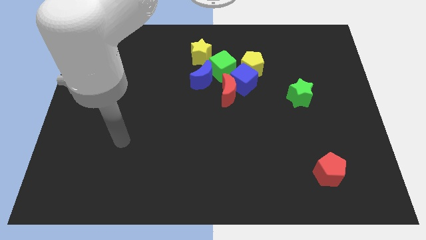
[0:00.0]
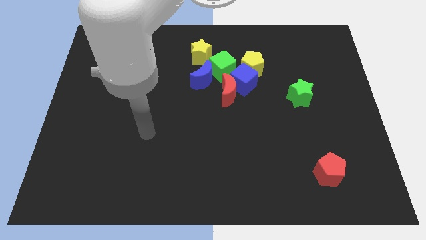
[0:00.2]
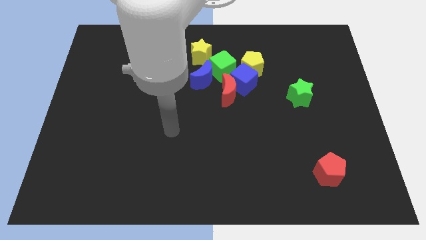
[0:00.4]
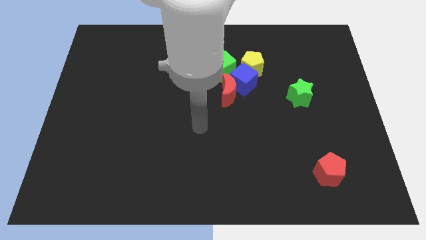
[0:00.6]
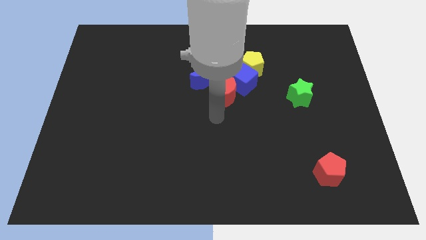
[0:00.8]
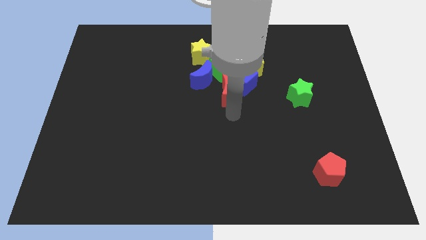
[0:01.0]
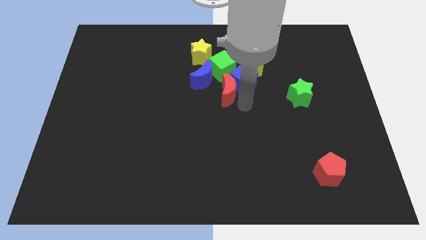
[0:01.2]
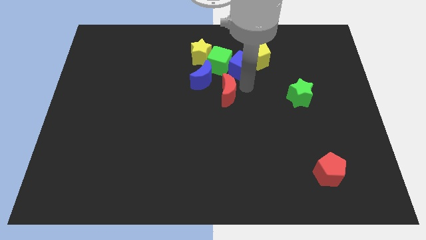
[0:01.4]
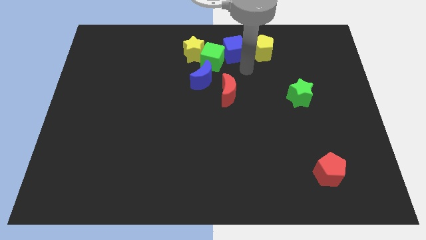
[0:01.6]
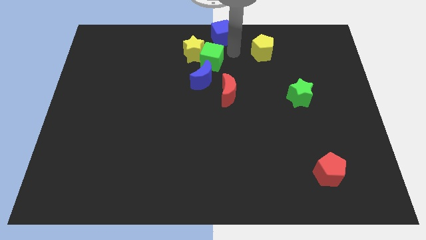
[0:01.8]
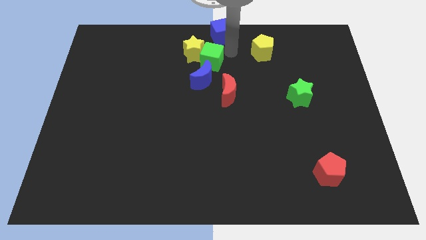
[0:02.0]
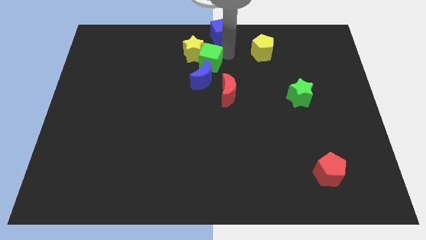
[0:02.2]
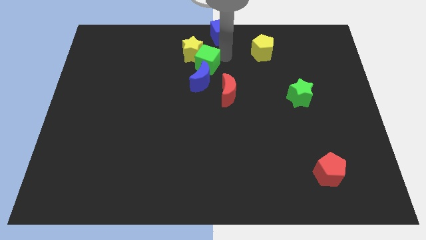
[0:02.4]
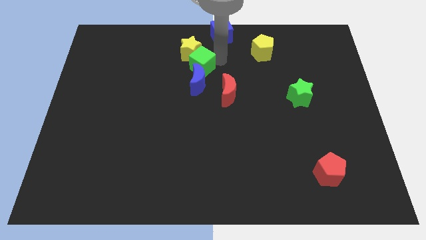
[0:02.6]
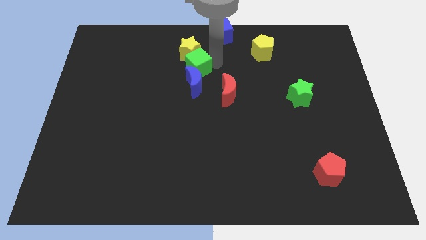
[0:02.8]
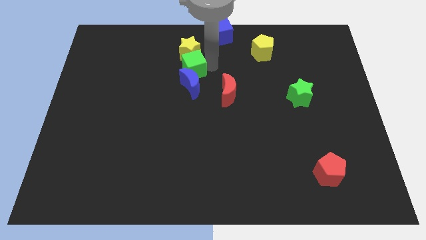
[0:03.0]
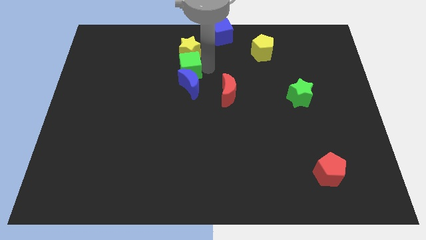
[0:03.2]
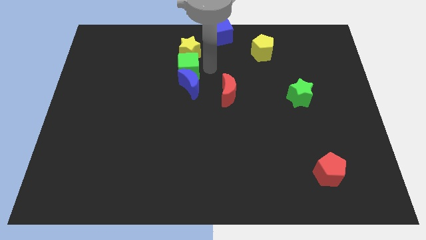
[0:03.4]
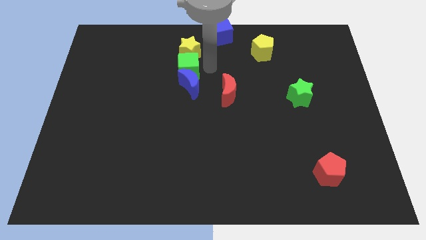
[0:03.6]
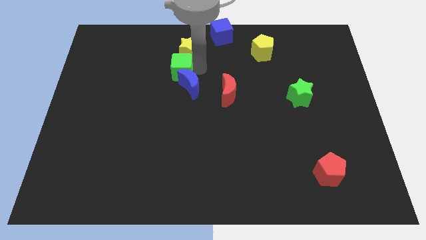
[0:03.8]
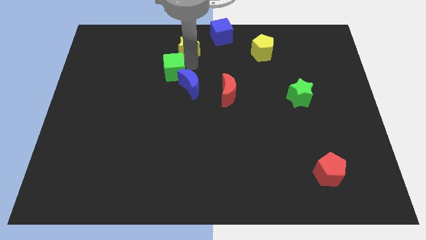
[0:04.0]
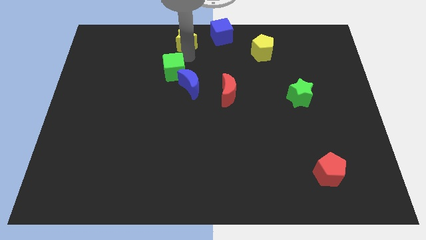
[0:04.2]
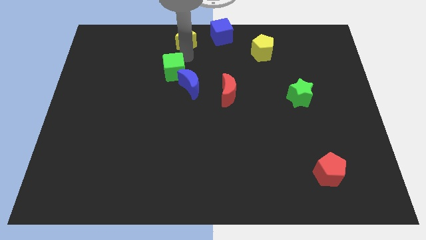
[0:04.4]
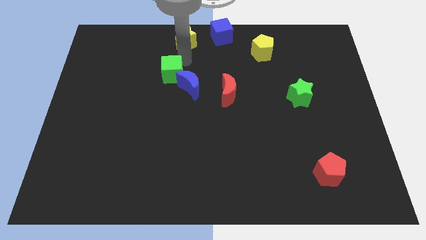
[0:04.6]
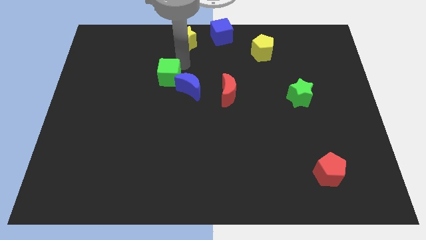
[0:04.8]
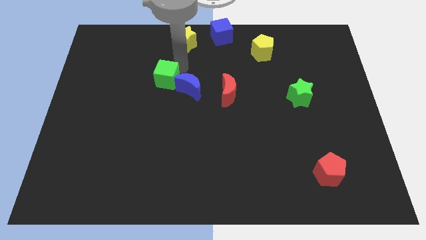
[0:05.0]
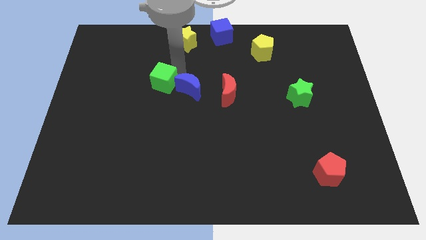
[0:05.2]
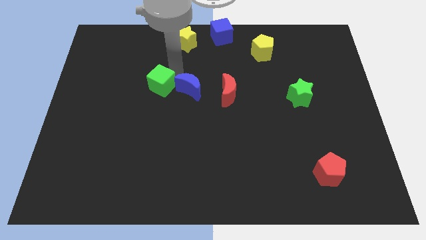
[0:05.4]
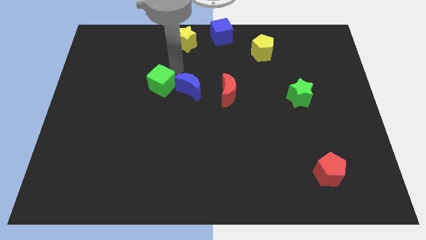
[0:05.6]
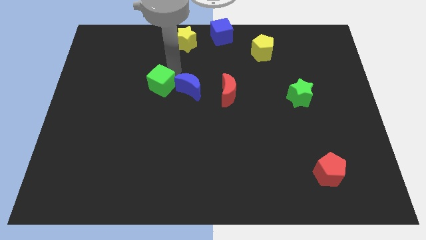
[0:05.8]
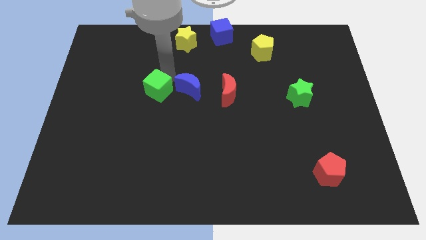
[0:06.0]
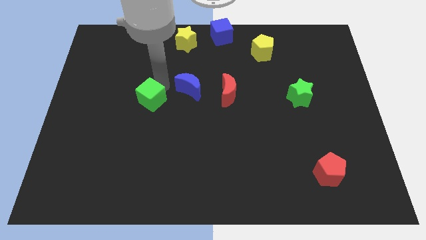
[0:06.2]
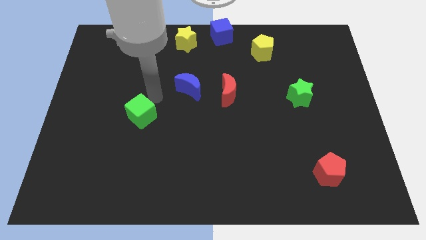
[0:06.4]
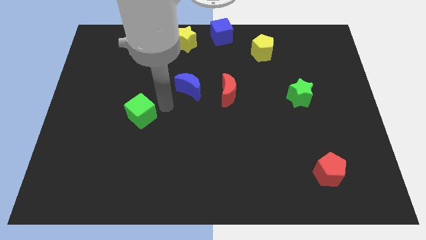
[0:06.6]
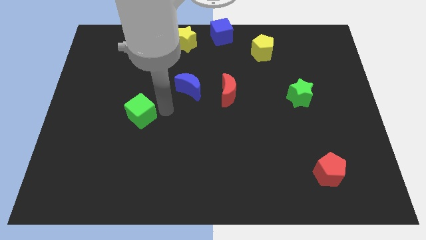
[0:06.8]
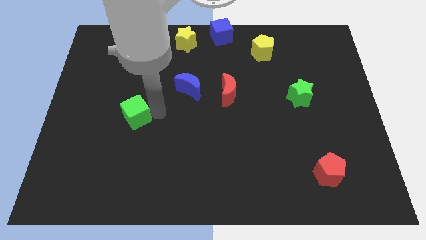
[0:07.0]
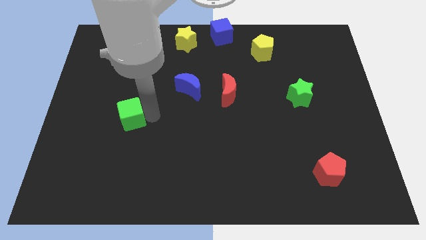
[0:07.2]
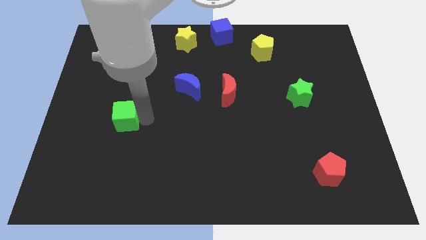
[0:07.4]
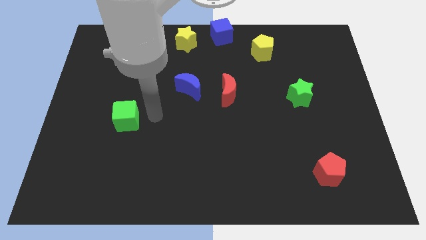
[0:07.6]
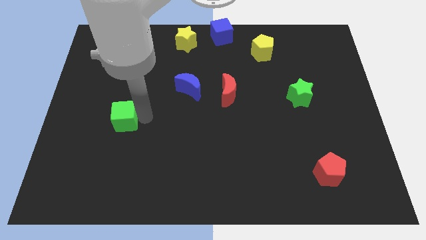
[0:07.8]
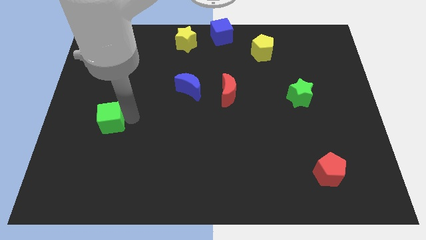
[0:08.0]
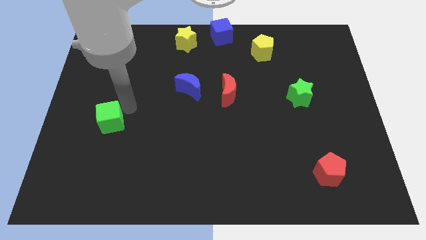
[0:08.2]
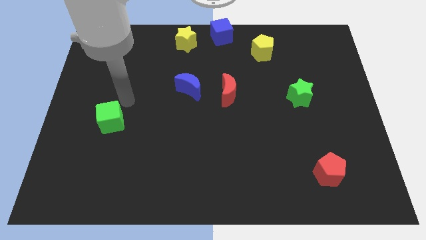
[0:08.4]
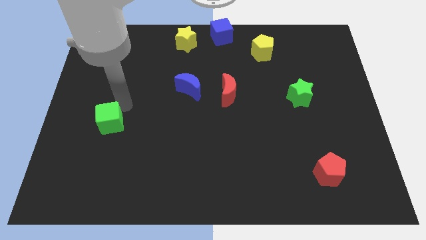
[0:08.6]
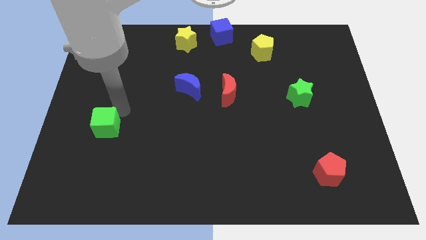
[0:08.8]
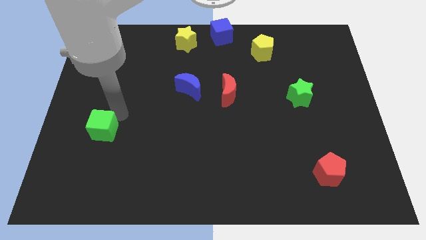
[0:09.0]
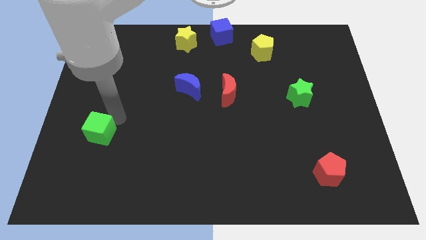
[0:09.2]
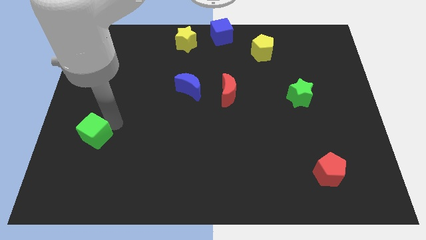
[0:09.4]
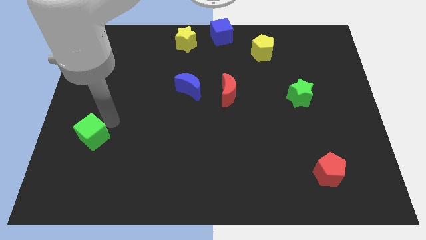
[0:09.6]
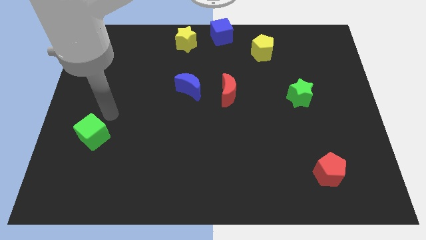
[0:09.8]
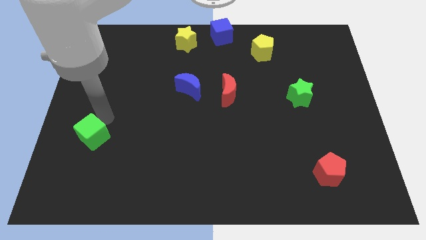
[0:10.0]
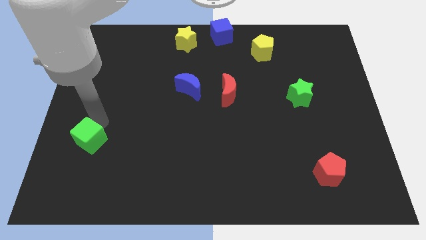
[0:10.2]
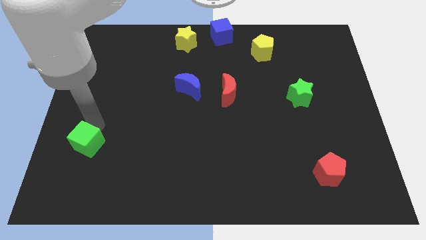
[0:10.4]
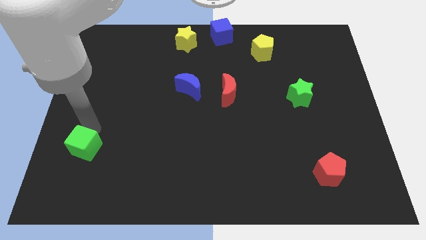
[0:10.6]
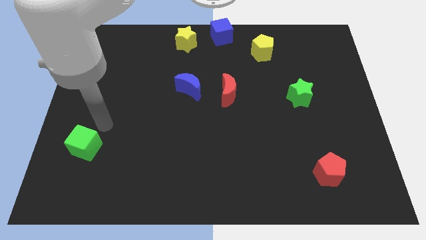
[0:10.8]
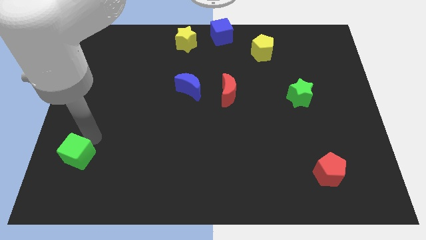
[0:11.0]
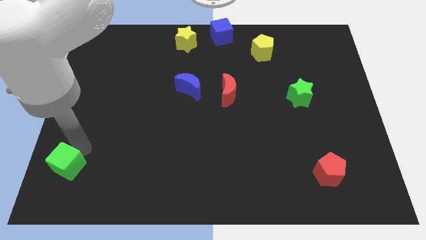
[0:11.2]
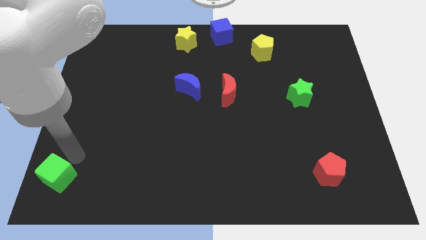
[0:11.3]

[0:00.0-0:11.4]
move the green cube to the bottom left of the board

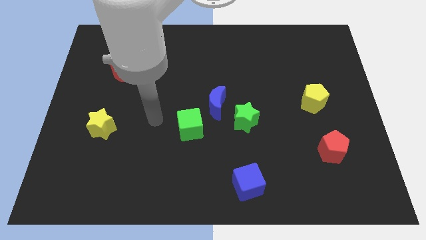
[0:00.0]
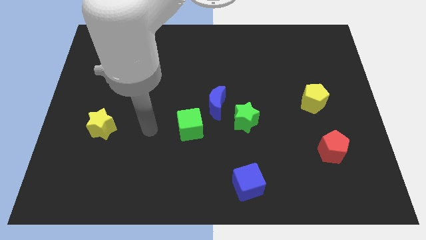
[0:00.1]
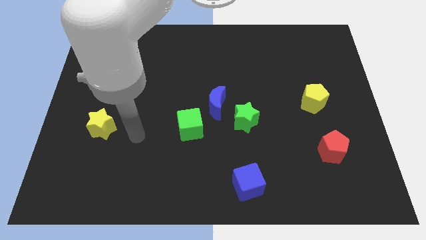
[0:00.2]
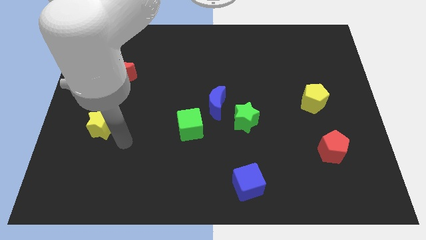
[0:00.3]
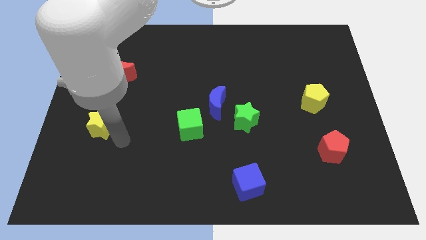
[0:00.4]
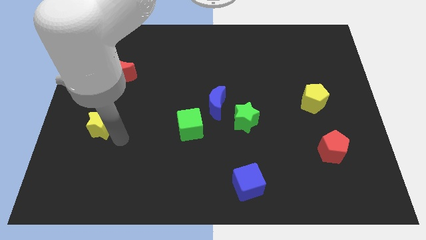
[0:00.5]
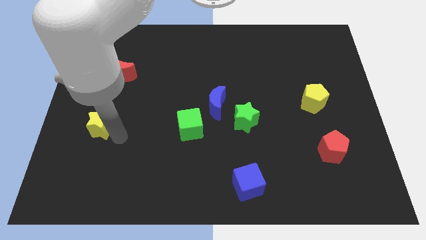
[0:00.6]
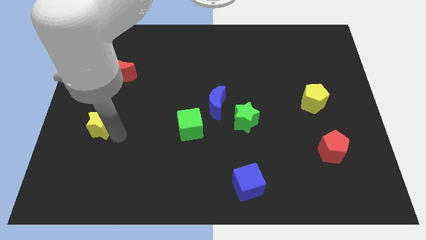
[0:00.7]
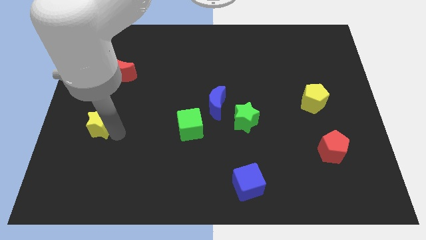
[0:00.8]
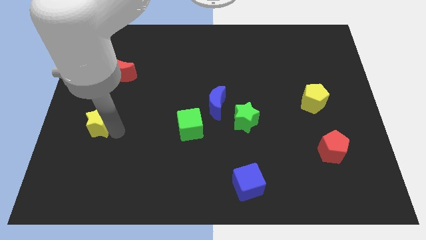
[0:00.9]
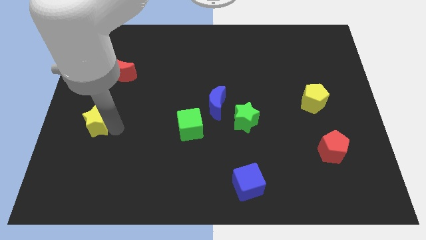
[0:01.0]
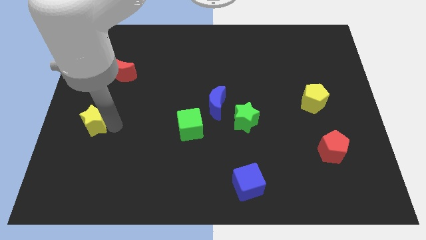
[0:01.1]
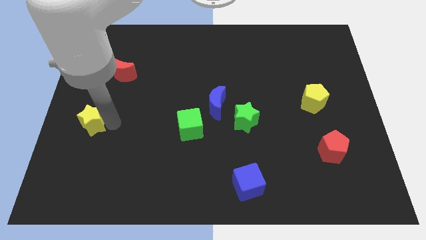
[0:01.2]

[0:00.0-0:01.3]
put the yellow star to the left side

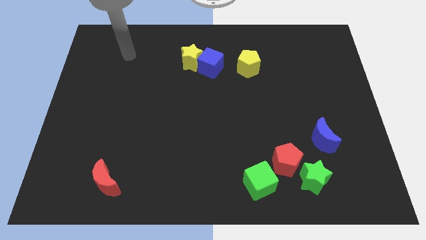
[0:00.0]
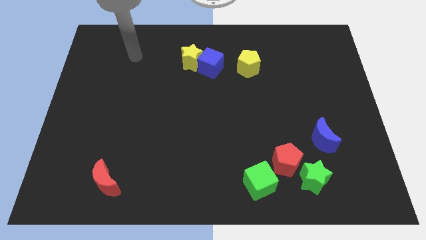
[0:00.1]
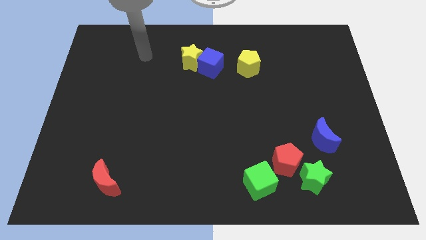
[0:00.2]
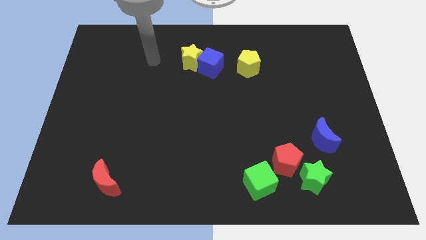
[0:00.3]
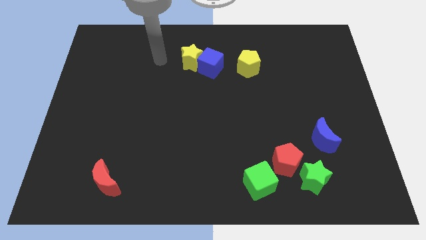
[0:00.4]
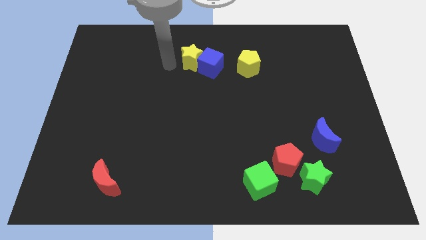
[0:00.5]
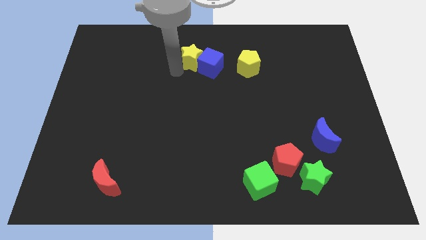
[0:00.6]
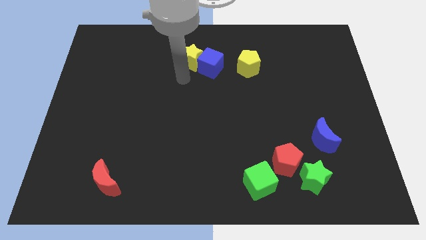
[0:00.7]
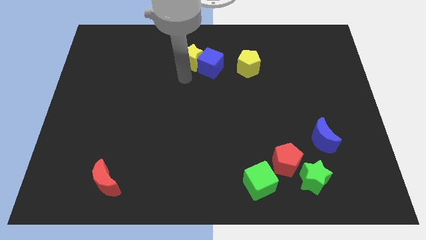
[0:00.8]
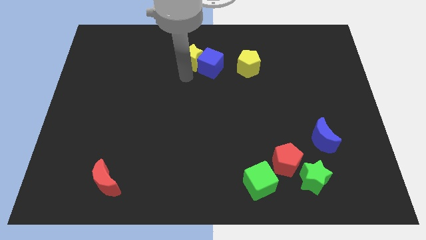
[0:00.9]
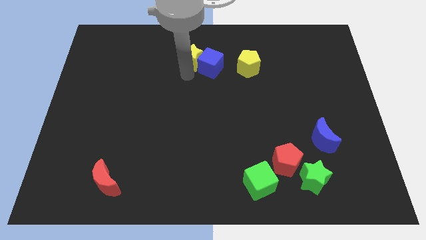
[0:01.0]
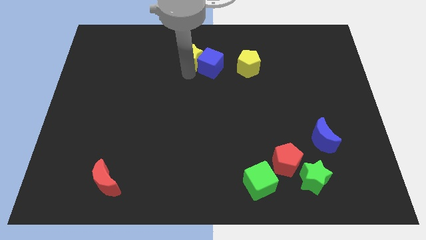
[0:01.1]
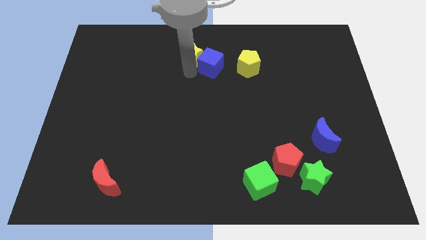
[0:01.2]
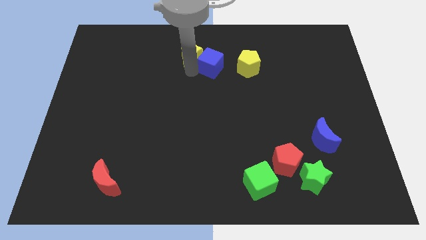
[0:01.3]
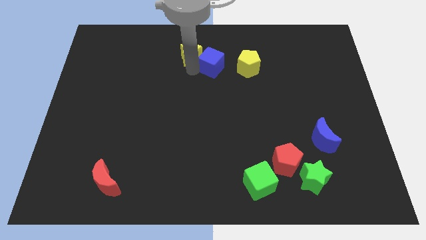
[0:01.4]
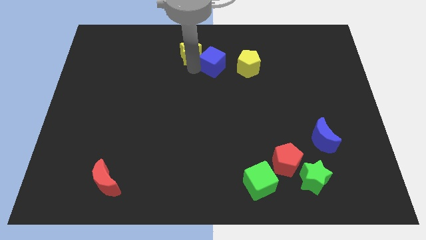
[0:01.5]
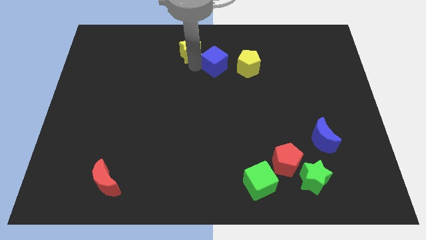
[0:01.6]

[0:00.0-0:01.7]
slide the yellow star to the top side
